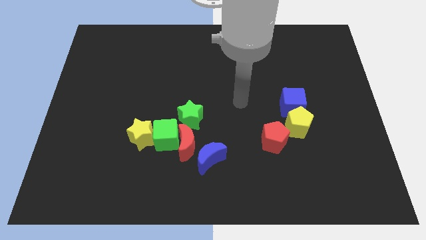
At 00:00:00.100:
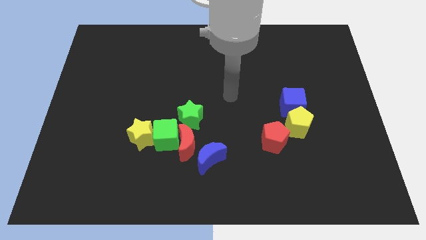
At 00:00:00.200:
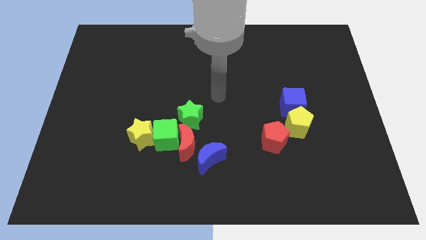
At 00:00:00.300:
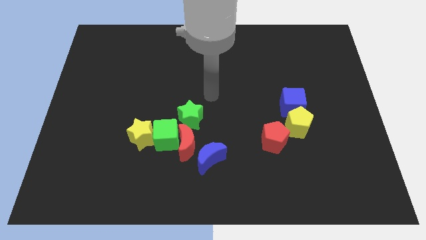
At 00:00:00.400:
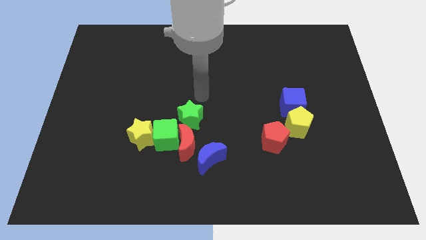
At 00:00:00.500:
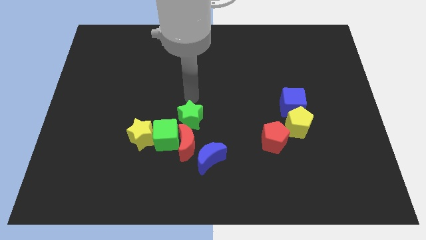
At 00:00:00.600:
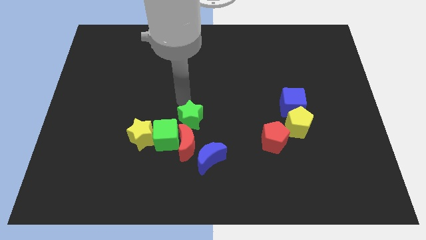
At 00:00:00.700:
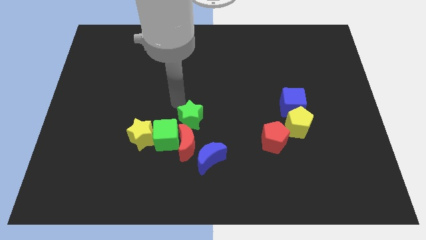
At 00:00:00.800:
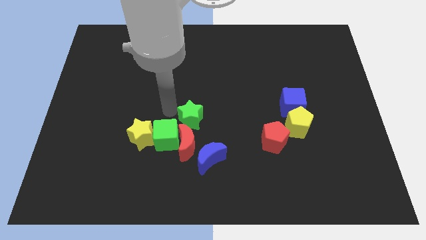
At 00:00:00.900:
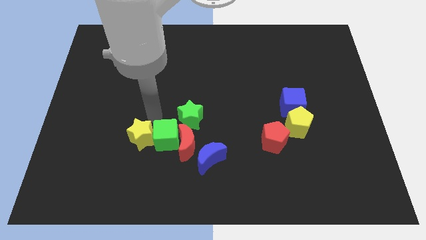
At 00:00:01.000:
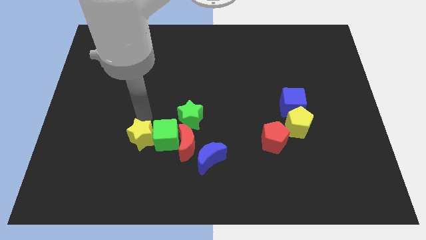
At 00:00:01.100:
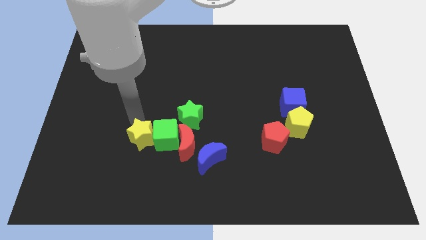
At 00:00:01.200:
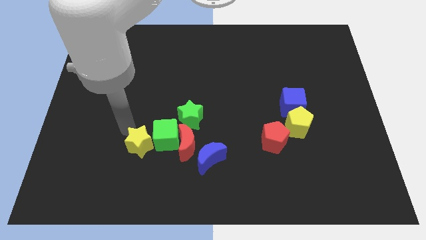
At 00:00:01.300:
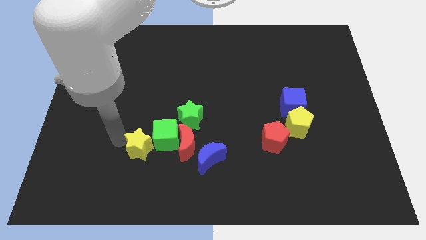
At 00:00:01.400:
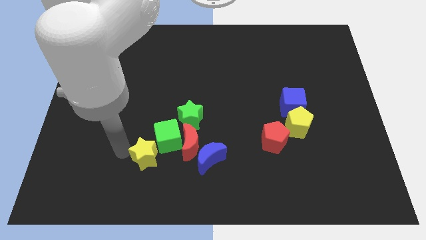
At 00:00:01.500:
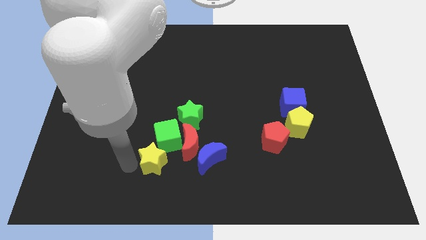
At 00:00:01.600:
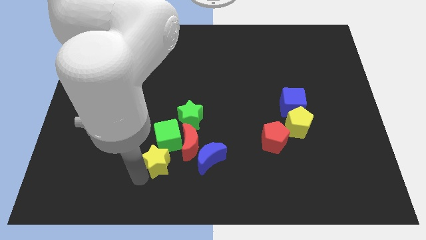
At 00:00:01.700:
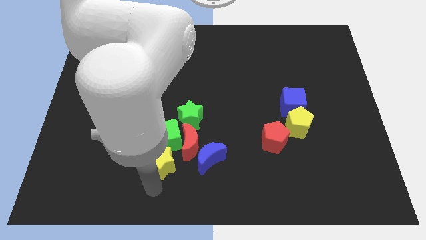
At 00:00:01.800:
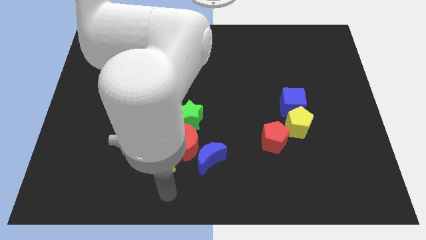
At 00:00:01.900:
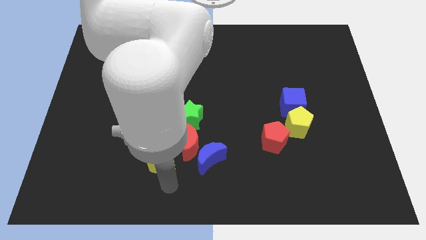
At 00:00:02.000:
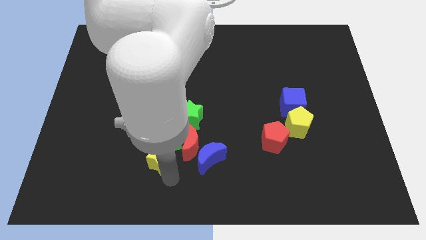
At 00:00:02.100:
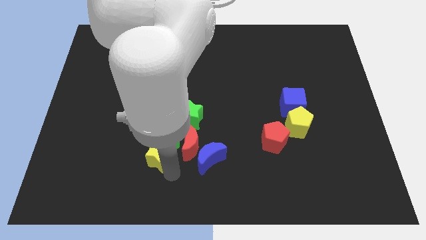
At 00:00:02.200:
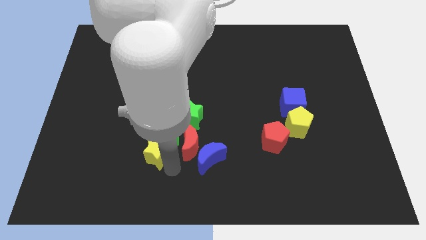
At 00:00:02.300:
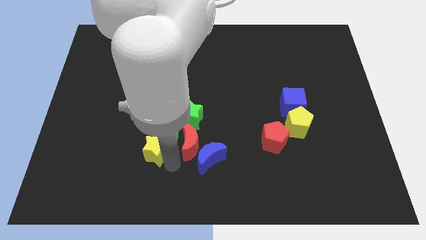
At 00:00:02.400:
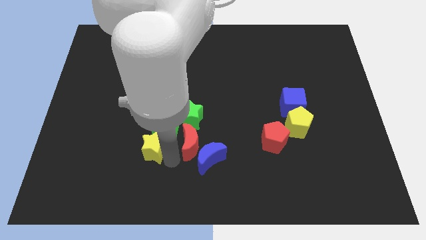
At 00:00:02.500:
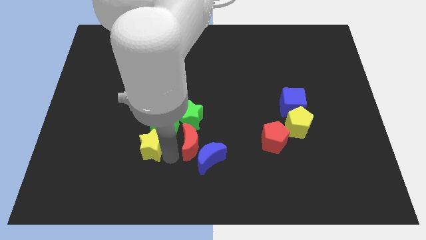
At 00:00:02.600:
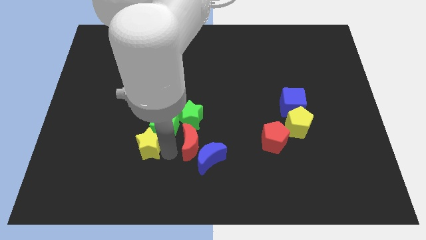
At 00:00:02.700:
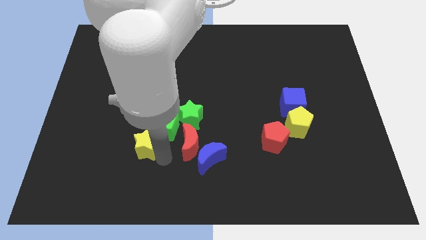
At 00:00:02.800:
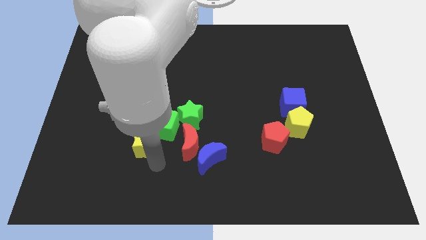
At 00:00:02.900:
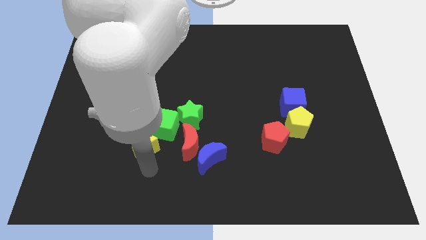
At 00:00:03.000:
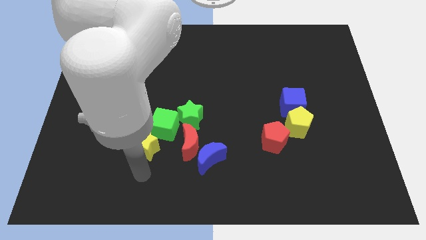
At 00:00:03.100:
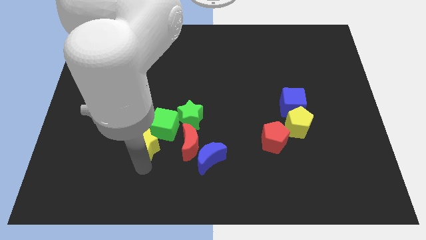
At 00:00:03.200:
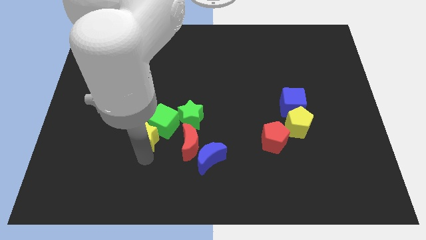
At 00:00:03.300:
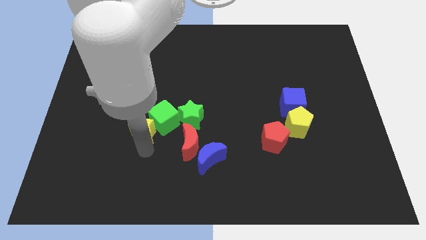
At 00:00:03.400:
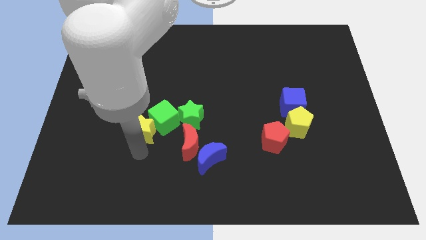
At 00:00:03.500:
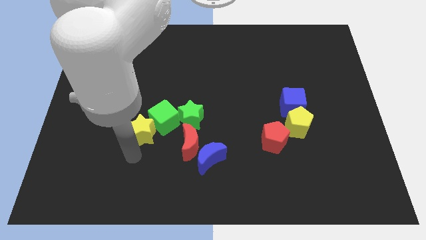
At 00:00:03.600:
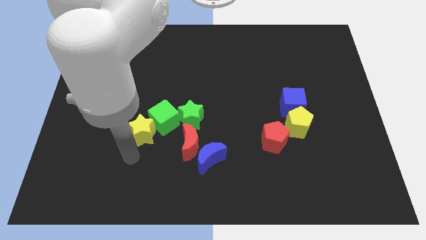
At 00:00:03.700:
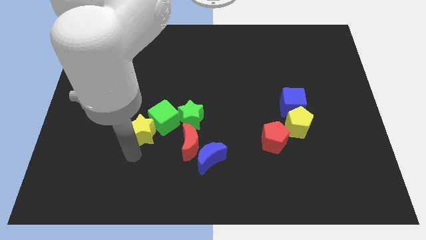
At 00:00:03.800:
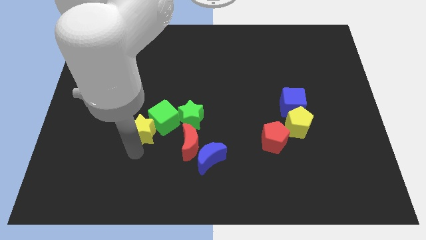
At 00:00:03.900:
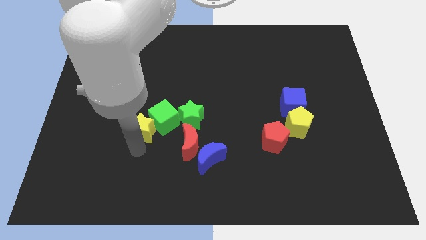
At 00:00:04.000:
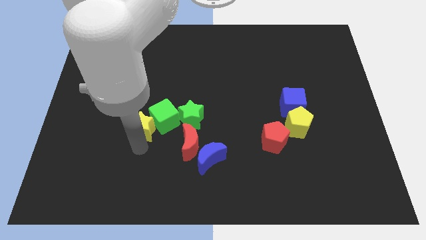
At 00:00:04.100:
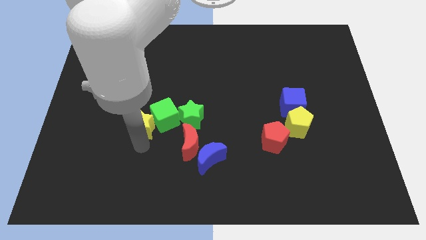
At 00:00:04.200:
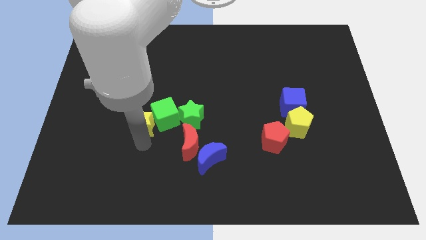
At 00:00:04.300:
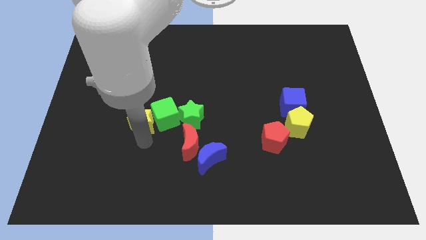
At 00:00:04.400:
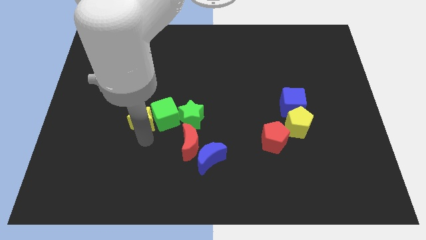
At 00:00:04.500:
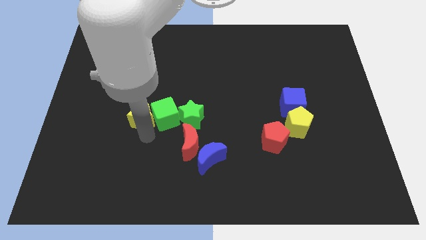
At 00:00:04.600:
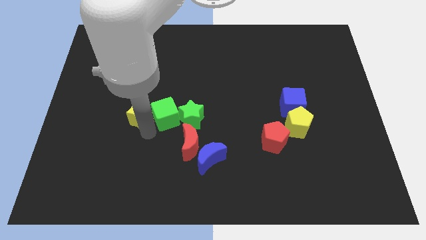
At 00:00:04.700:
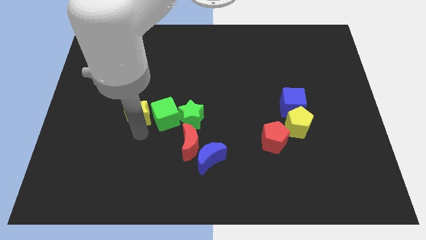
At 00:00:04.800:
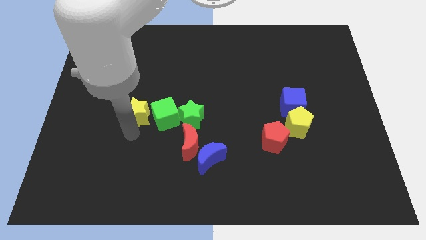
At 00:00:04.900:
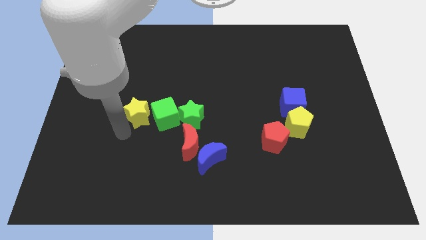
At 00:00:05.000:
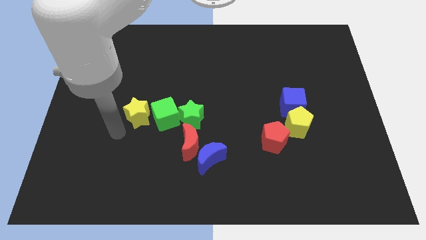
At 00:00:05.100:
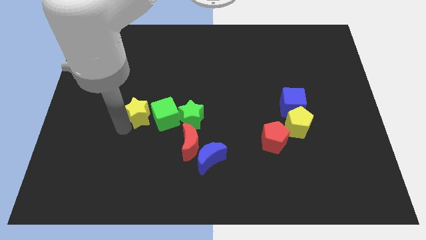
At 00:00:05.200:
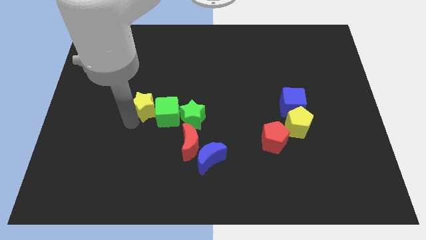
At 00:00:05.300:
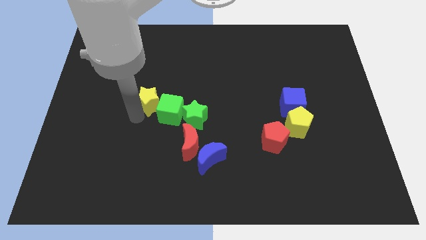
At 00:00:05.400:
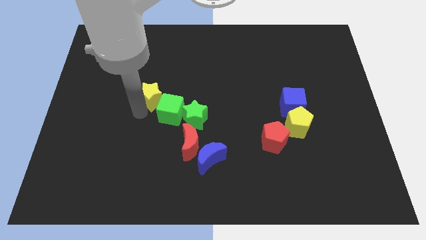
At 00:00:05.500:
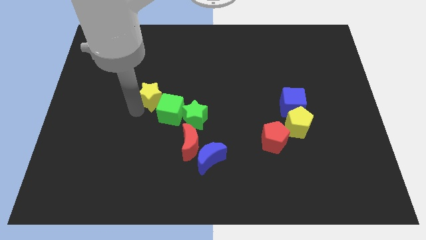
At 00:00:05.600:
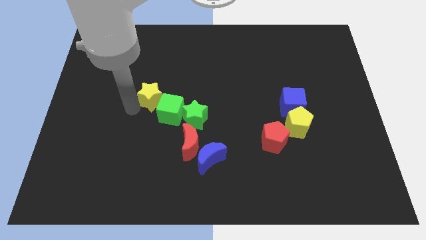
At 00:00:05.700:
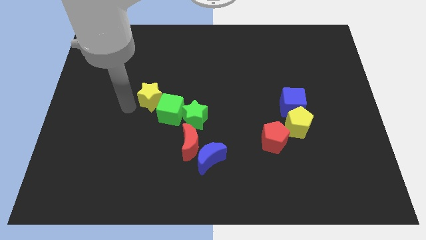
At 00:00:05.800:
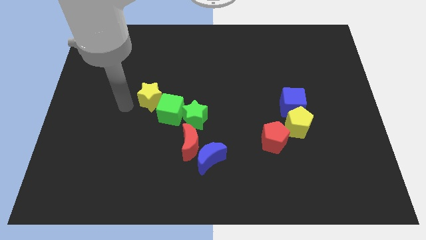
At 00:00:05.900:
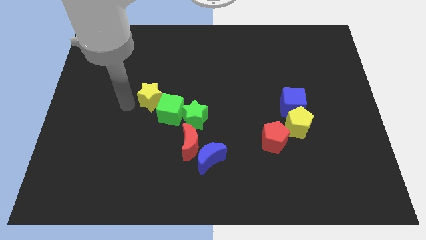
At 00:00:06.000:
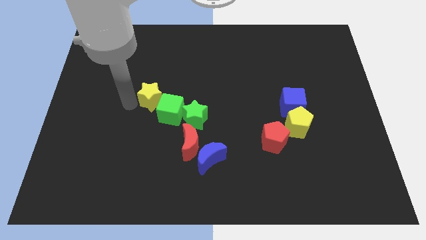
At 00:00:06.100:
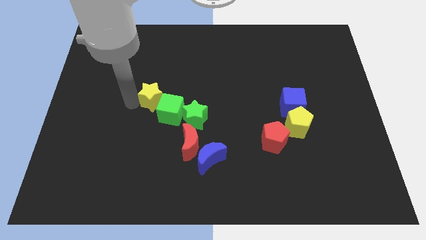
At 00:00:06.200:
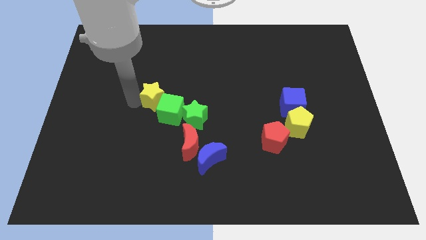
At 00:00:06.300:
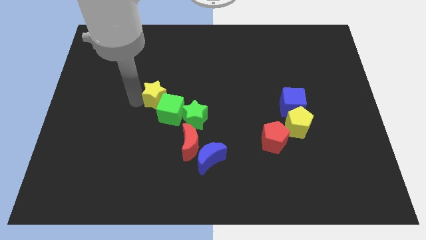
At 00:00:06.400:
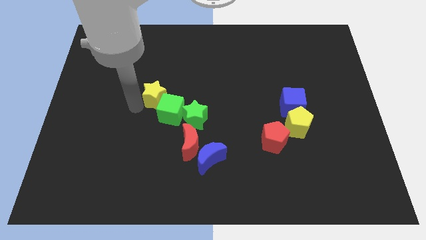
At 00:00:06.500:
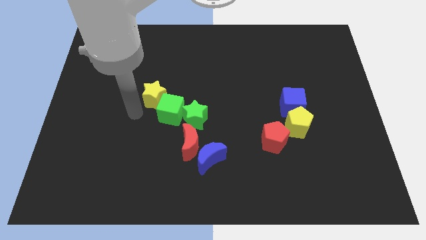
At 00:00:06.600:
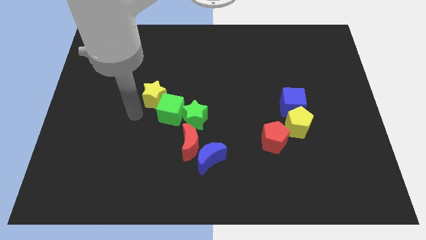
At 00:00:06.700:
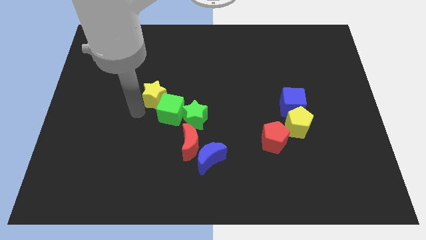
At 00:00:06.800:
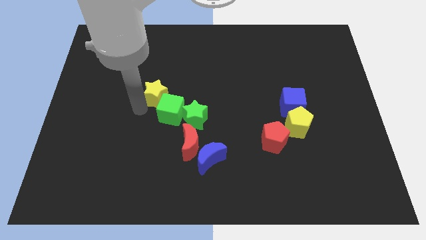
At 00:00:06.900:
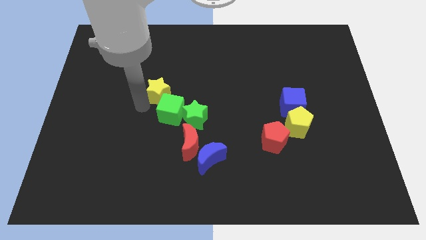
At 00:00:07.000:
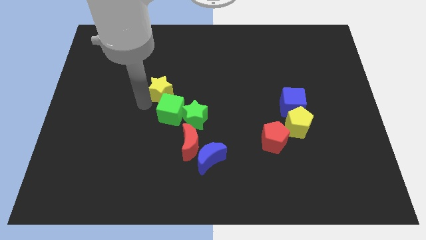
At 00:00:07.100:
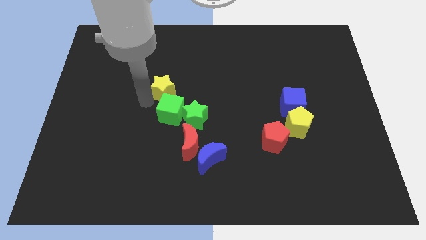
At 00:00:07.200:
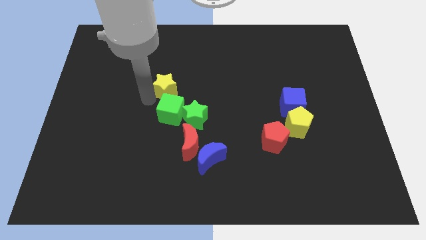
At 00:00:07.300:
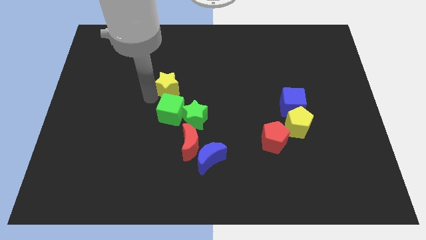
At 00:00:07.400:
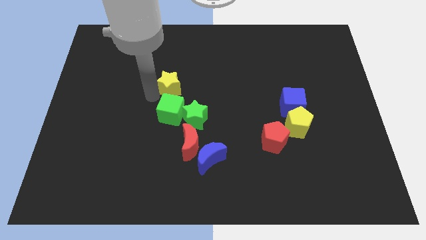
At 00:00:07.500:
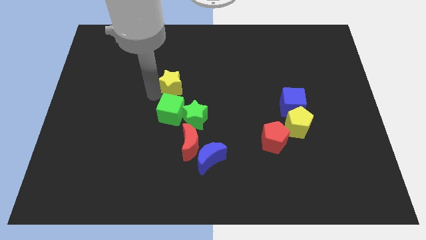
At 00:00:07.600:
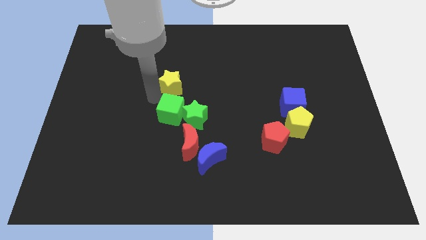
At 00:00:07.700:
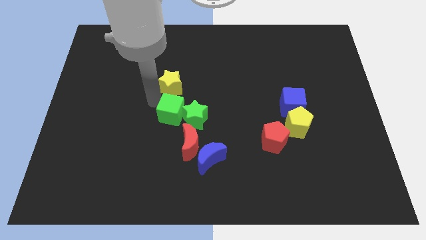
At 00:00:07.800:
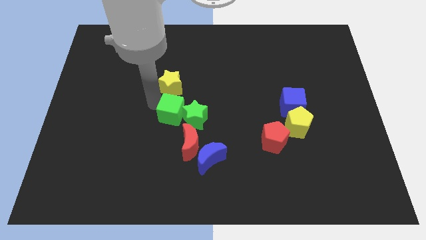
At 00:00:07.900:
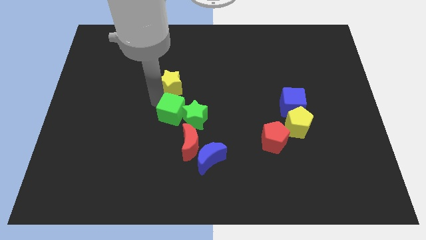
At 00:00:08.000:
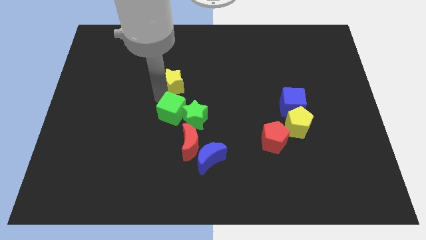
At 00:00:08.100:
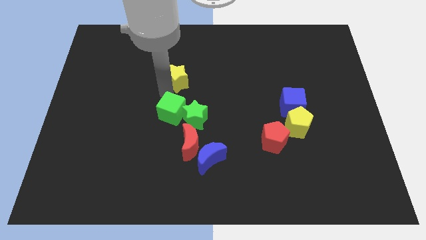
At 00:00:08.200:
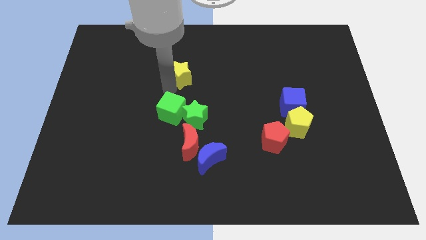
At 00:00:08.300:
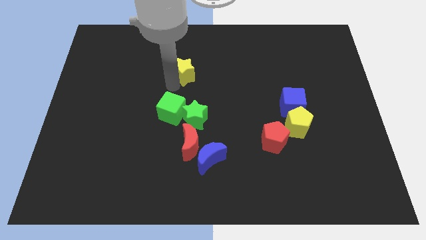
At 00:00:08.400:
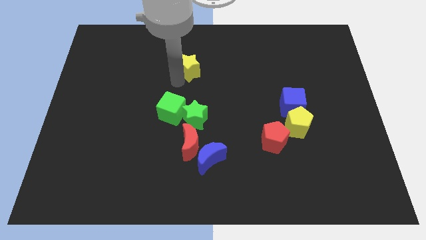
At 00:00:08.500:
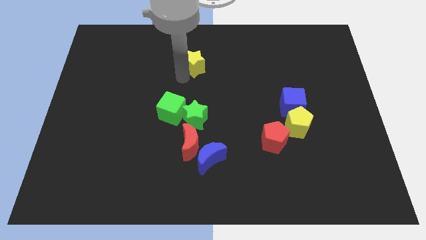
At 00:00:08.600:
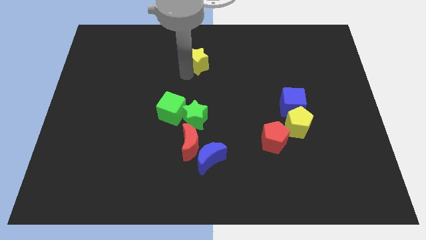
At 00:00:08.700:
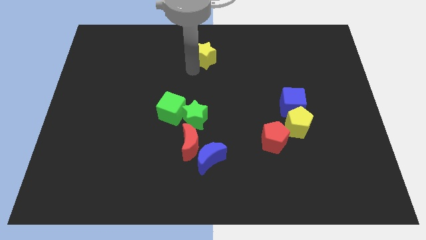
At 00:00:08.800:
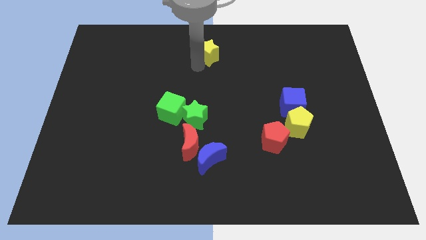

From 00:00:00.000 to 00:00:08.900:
push the yellow star to the top
